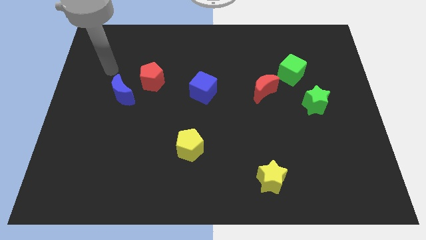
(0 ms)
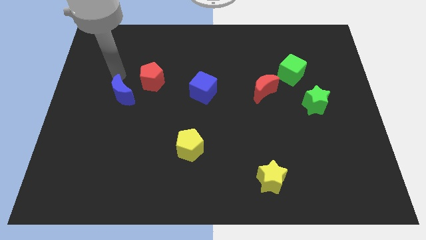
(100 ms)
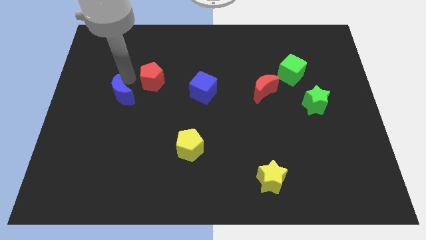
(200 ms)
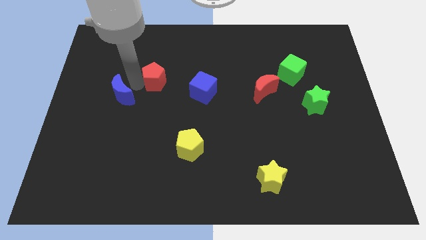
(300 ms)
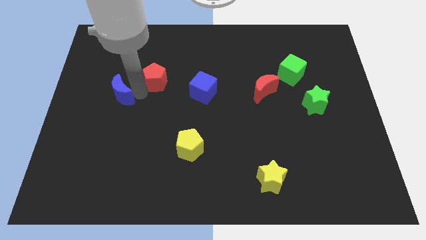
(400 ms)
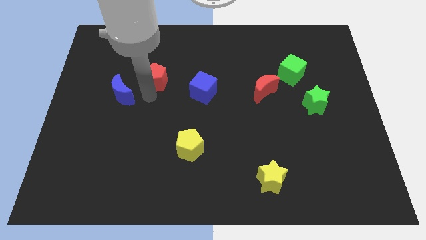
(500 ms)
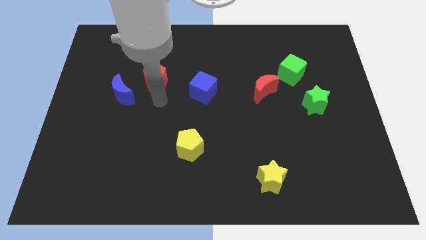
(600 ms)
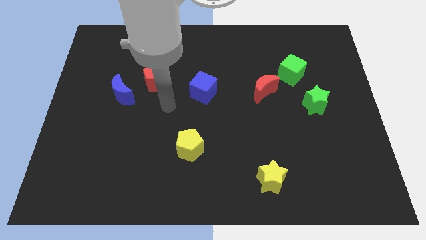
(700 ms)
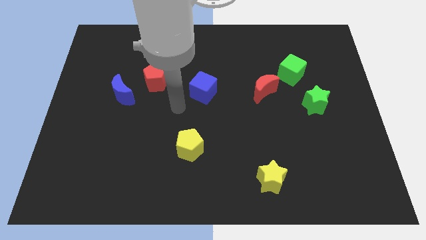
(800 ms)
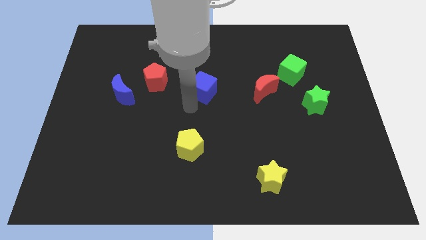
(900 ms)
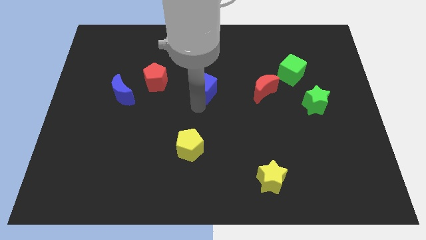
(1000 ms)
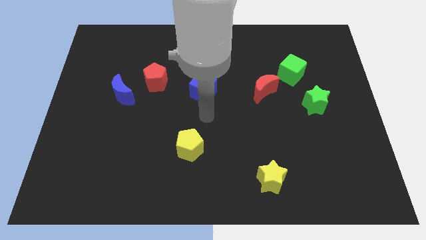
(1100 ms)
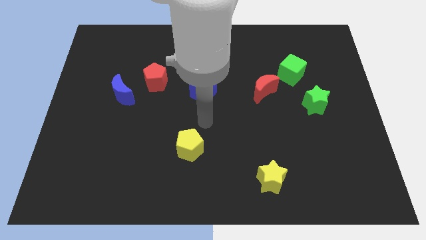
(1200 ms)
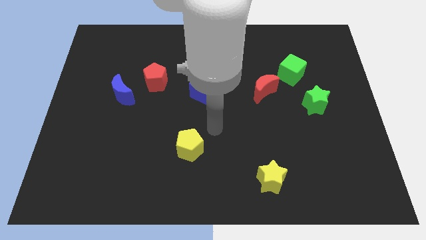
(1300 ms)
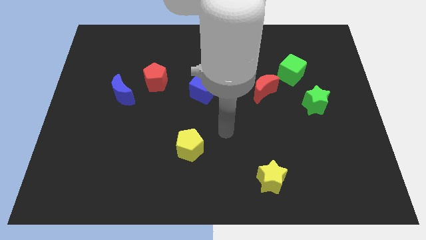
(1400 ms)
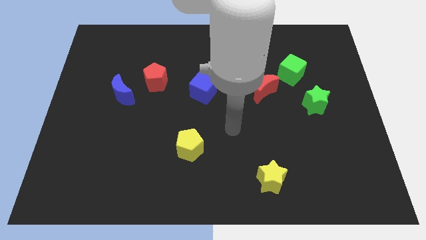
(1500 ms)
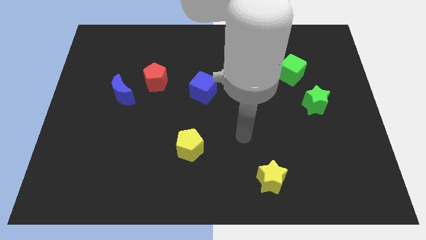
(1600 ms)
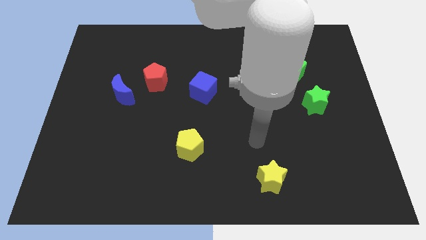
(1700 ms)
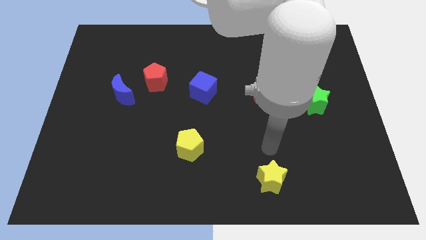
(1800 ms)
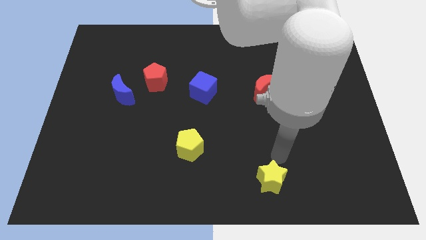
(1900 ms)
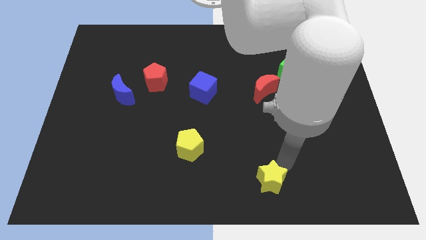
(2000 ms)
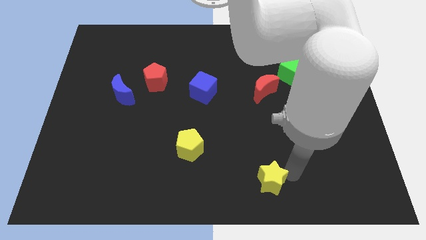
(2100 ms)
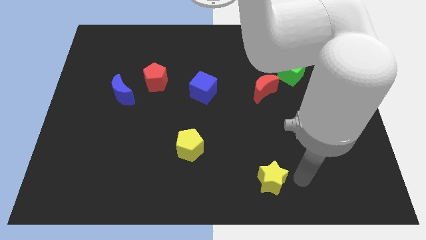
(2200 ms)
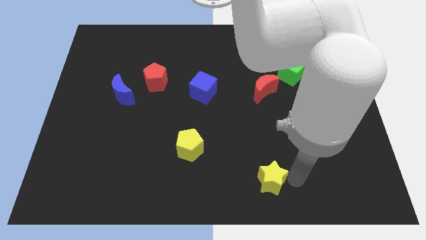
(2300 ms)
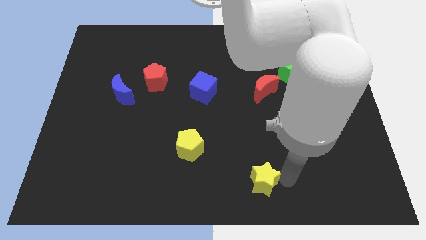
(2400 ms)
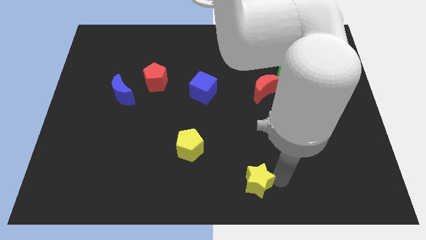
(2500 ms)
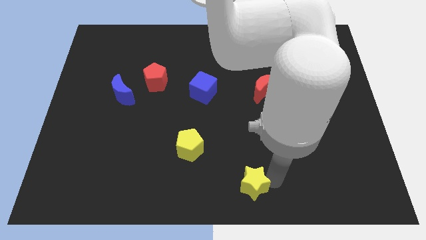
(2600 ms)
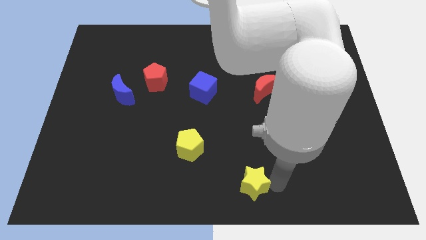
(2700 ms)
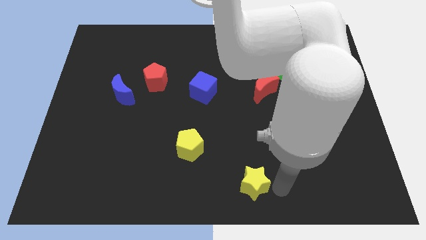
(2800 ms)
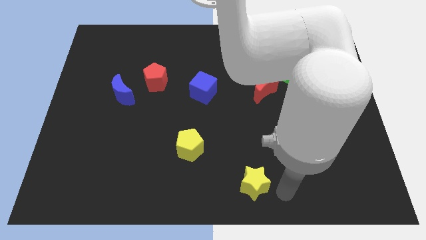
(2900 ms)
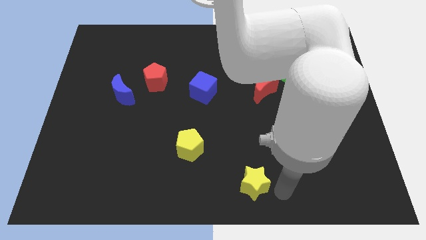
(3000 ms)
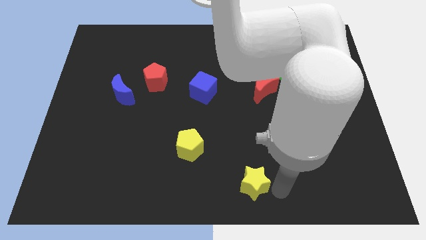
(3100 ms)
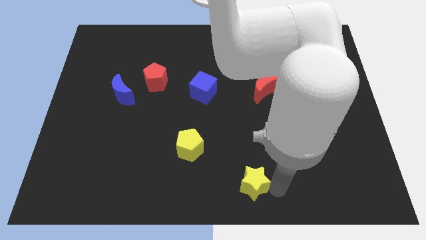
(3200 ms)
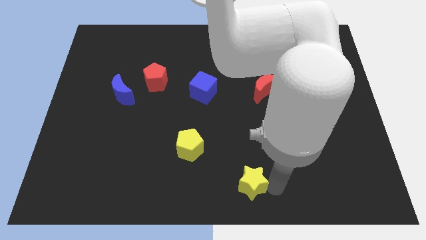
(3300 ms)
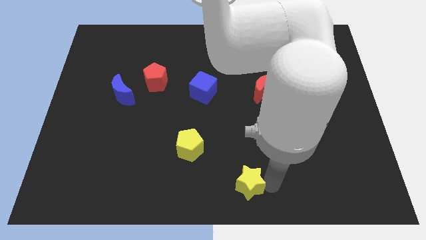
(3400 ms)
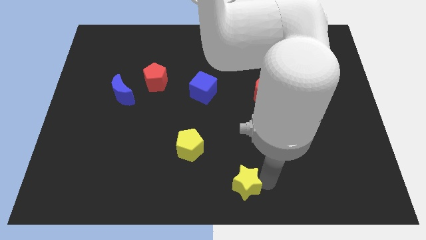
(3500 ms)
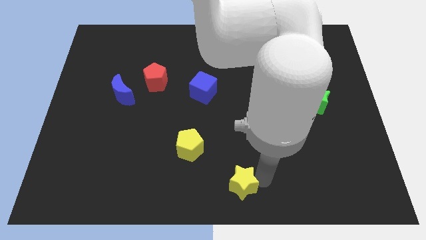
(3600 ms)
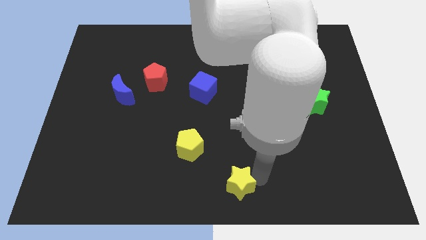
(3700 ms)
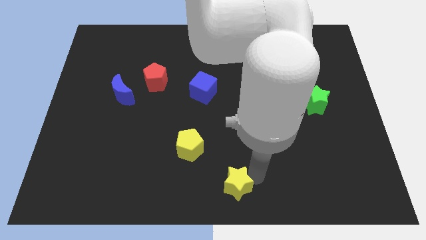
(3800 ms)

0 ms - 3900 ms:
slightly push the yellow star left

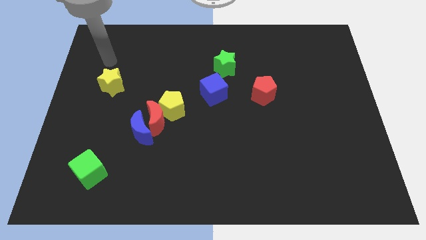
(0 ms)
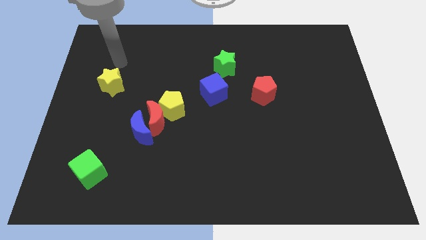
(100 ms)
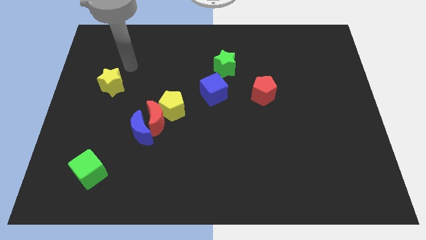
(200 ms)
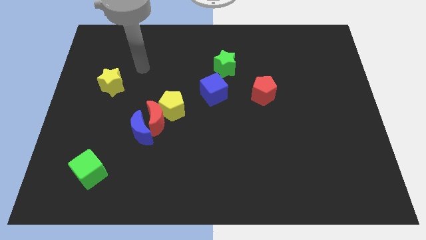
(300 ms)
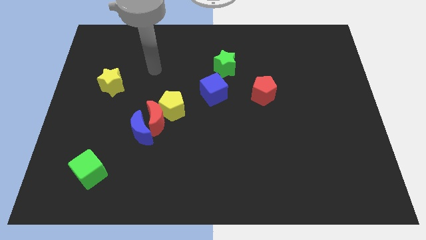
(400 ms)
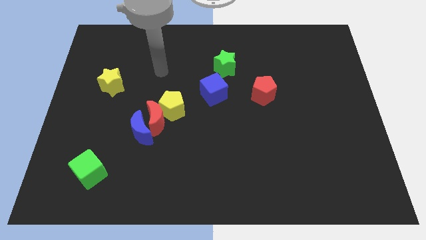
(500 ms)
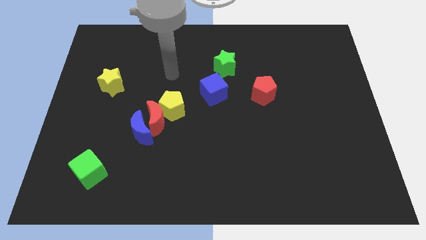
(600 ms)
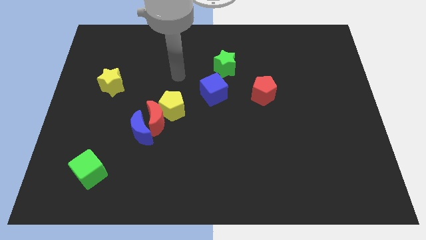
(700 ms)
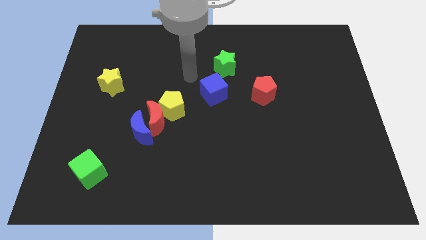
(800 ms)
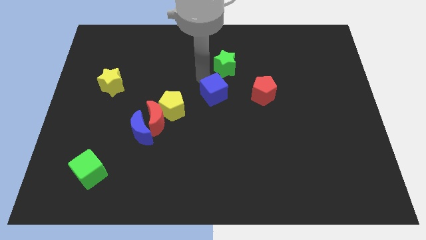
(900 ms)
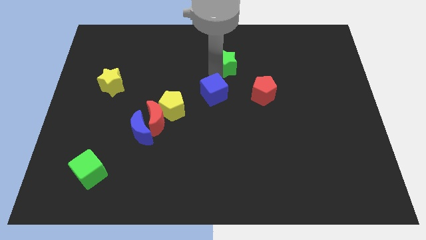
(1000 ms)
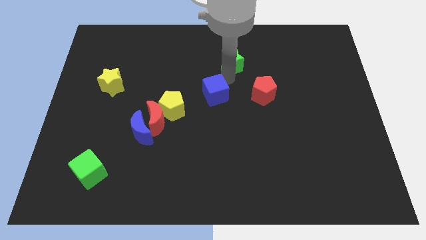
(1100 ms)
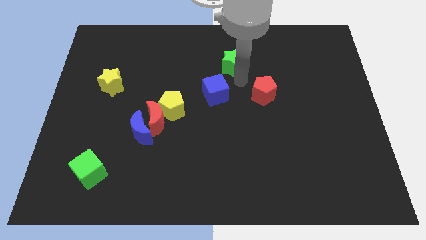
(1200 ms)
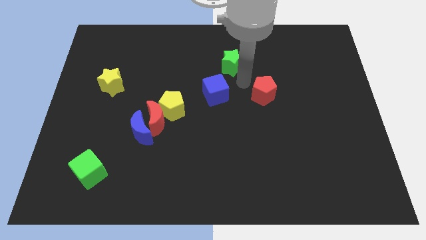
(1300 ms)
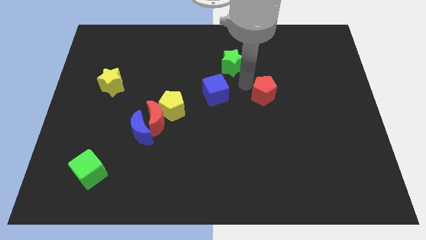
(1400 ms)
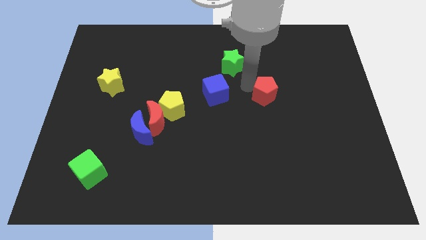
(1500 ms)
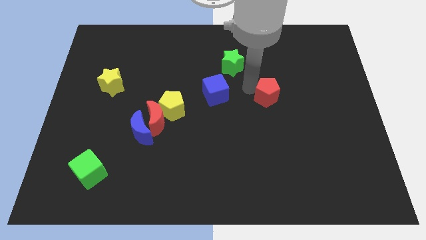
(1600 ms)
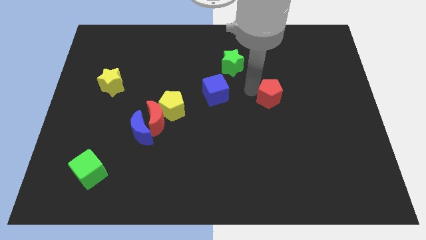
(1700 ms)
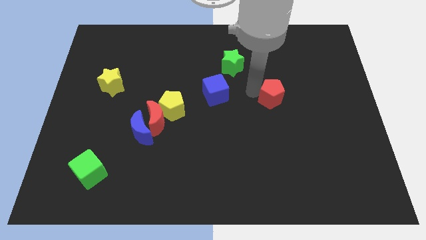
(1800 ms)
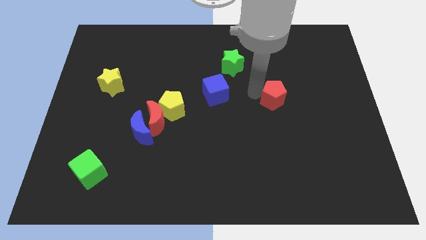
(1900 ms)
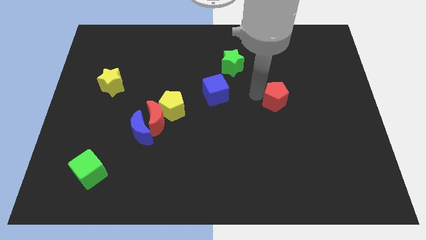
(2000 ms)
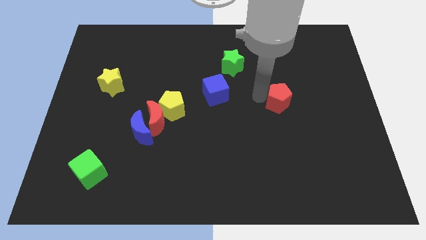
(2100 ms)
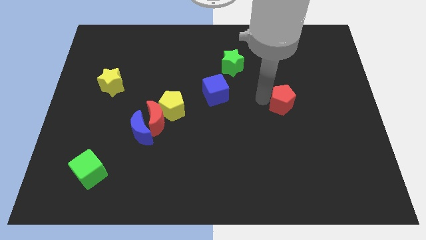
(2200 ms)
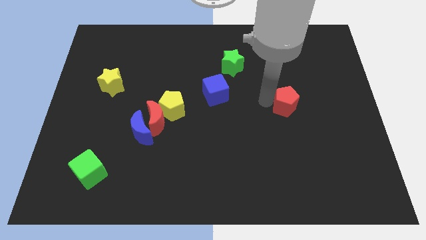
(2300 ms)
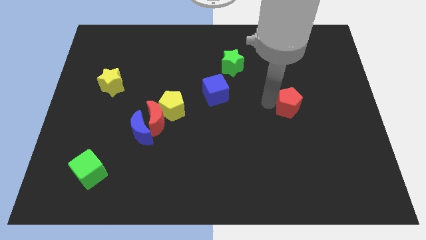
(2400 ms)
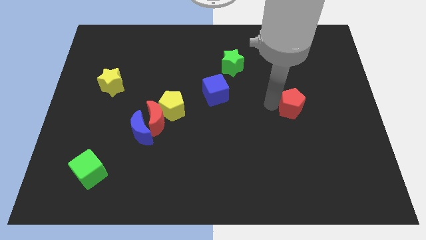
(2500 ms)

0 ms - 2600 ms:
slightly slide the red pentagon diagonally down and to the right

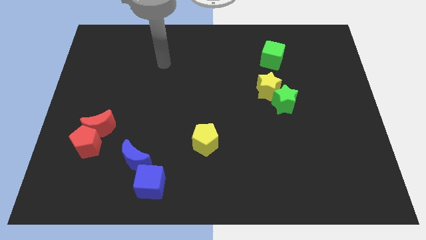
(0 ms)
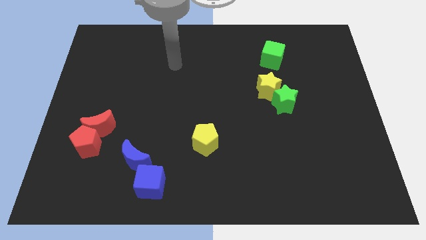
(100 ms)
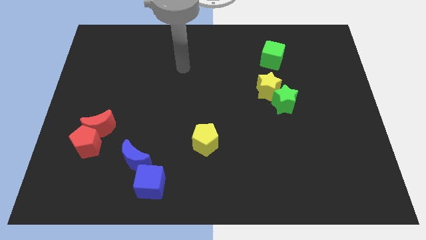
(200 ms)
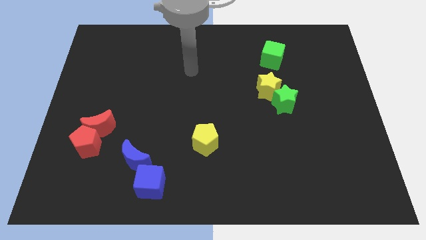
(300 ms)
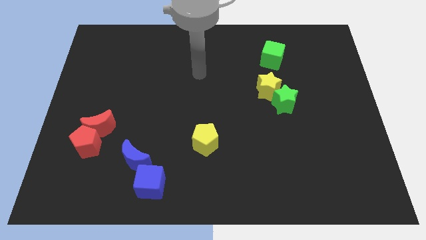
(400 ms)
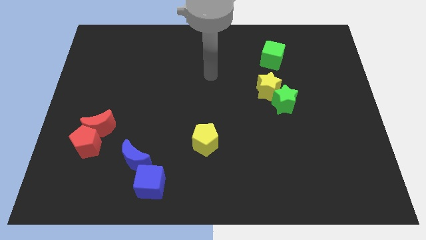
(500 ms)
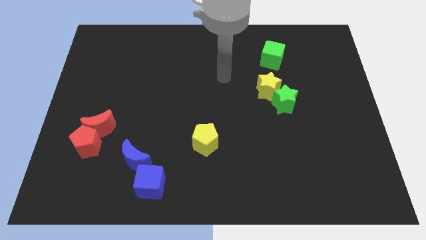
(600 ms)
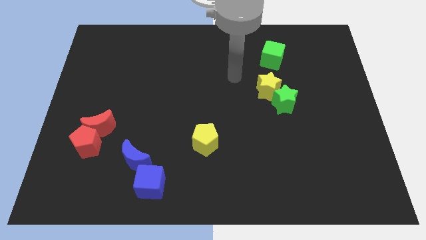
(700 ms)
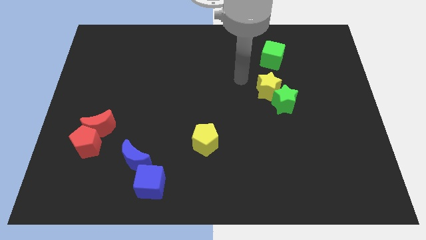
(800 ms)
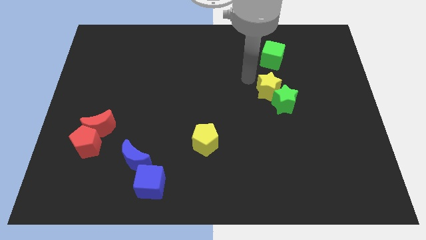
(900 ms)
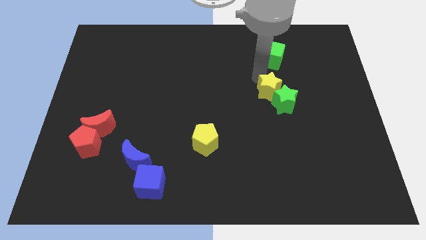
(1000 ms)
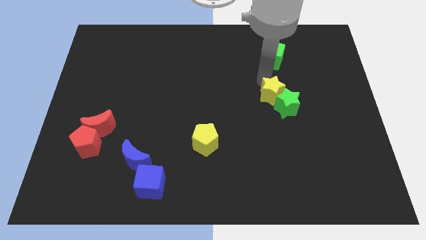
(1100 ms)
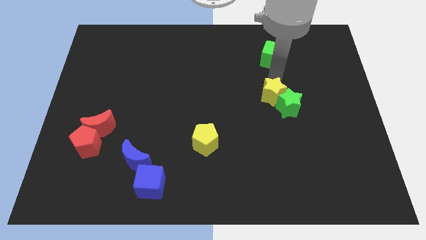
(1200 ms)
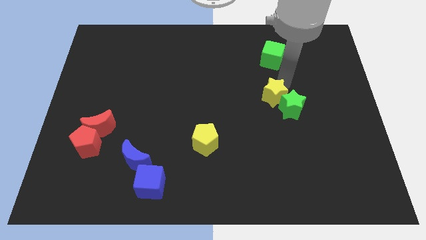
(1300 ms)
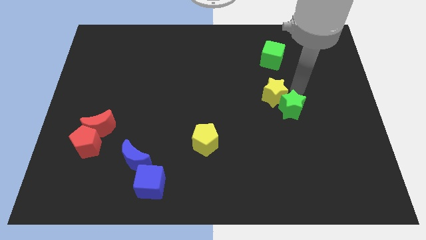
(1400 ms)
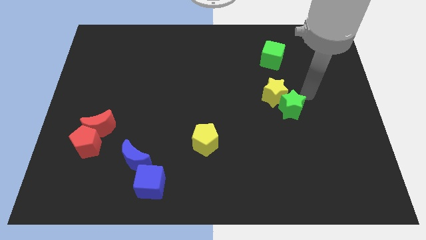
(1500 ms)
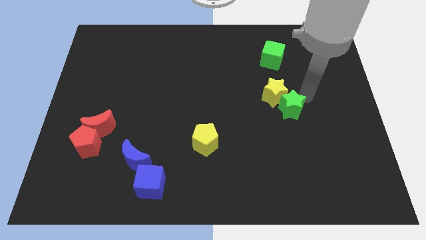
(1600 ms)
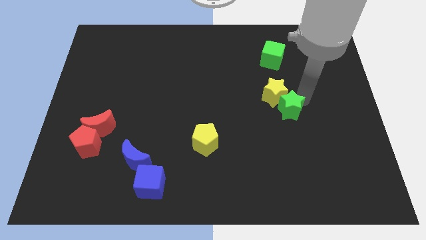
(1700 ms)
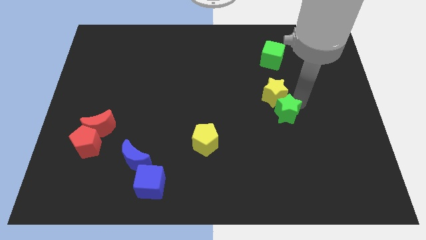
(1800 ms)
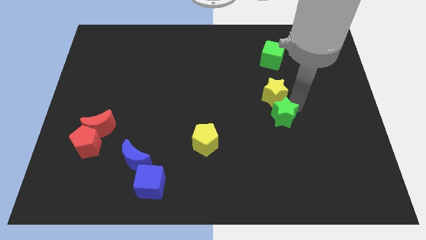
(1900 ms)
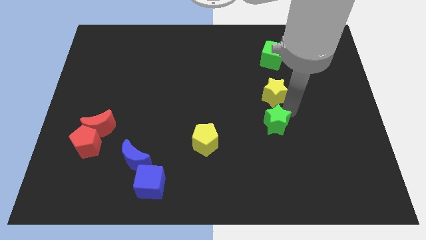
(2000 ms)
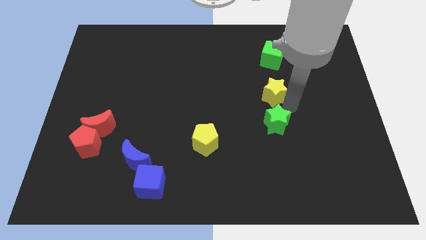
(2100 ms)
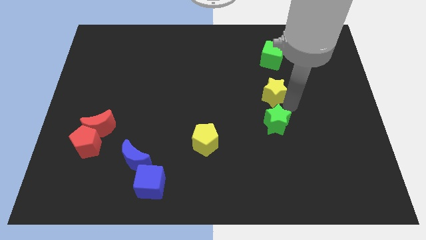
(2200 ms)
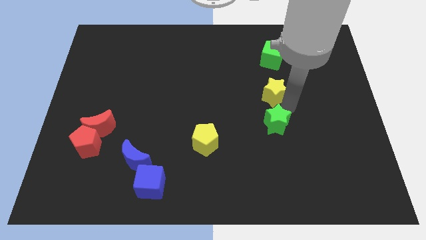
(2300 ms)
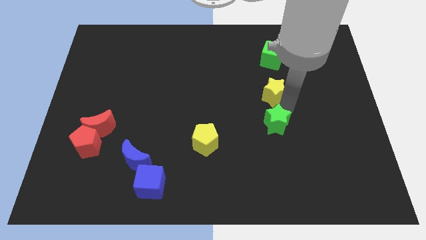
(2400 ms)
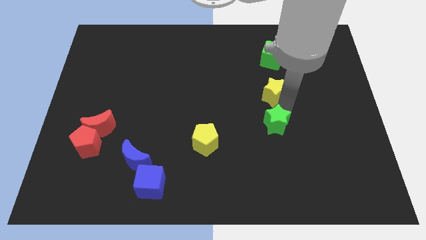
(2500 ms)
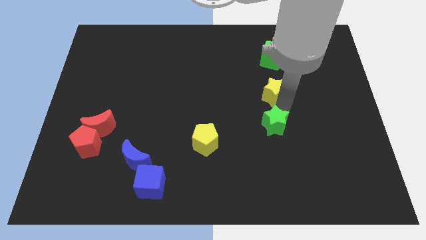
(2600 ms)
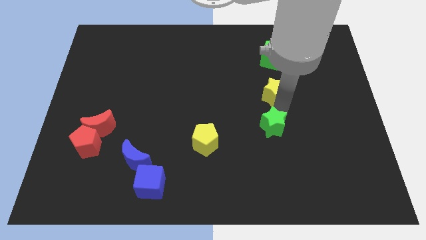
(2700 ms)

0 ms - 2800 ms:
push the green star down and to the left diagonally a little bit
